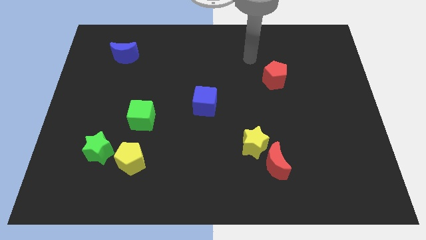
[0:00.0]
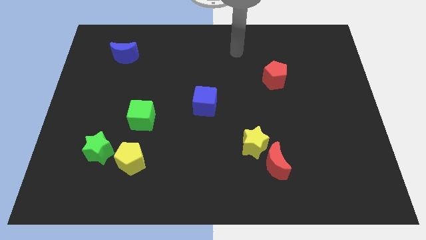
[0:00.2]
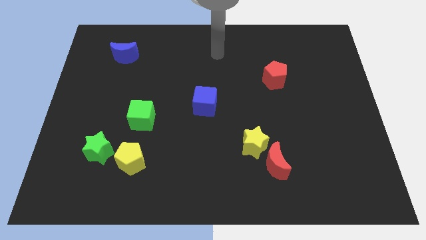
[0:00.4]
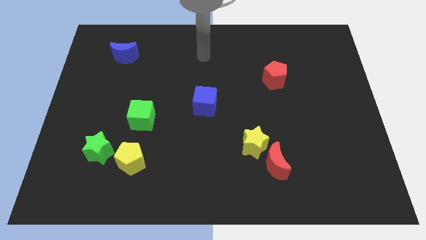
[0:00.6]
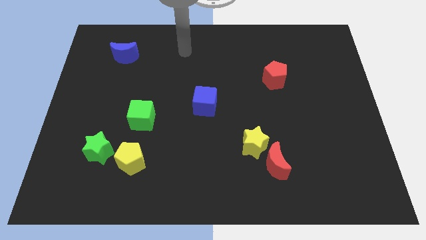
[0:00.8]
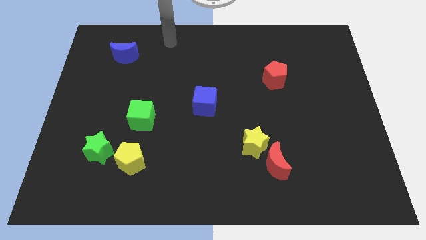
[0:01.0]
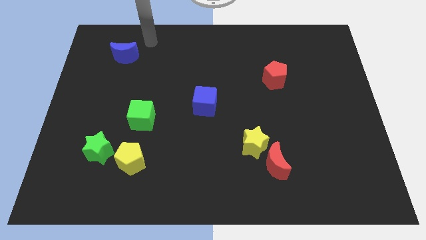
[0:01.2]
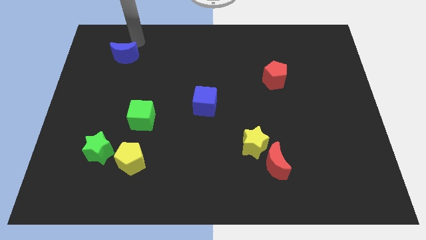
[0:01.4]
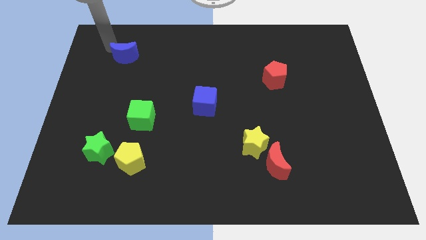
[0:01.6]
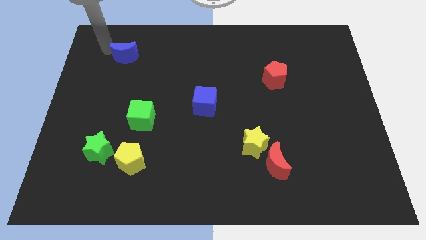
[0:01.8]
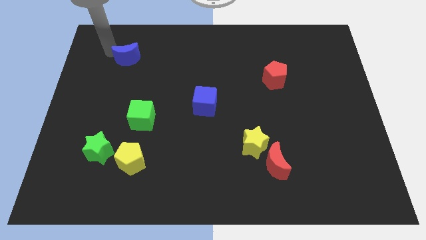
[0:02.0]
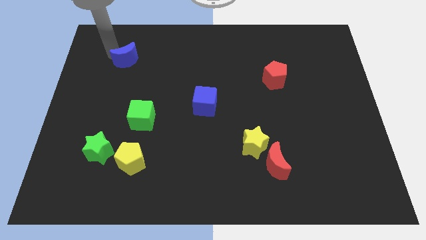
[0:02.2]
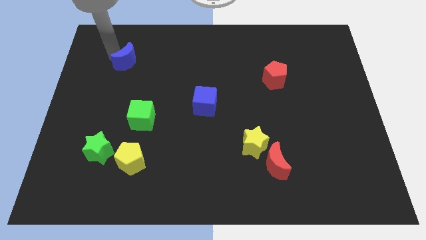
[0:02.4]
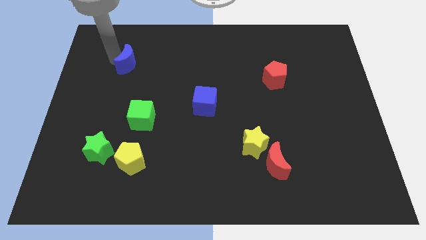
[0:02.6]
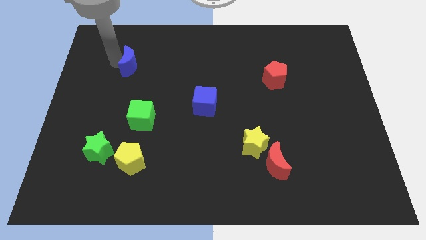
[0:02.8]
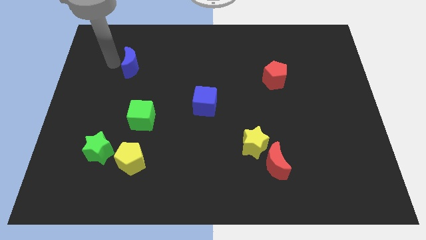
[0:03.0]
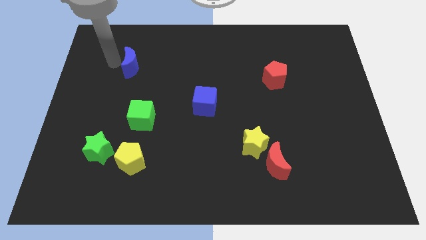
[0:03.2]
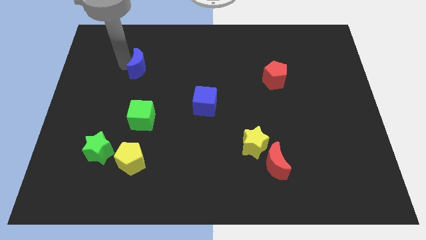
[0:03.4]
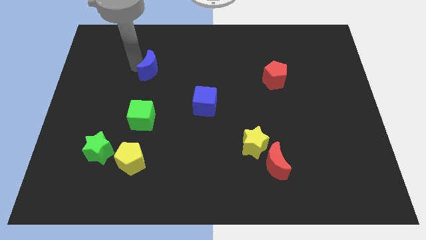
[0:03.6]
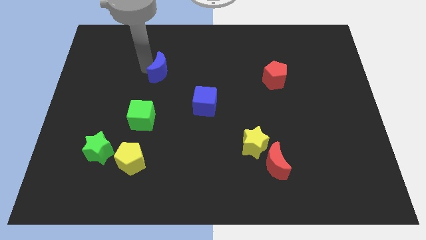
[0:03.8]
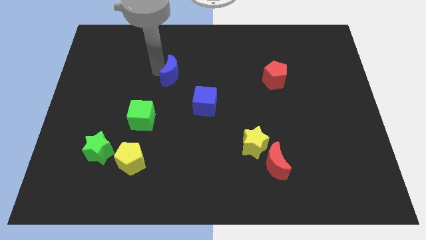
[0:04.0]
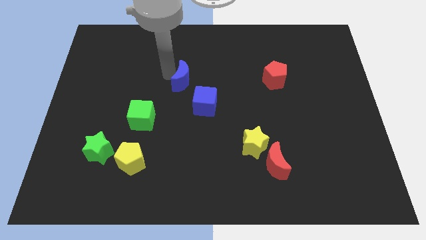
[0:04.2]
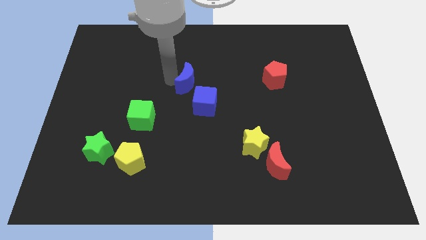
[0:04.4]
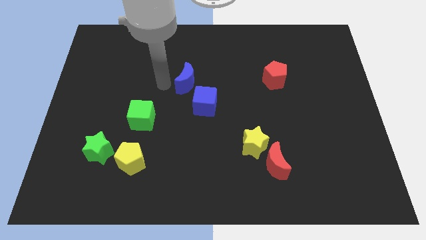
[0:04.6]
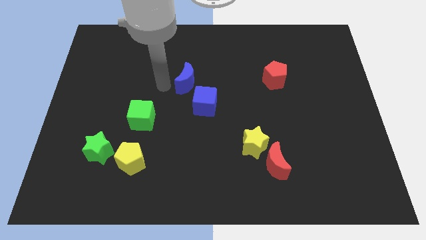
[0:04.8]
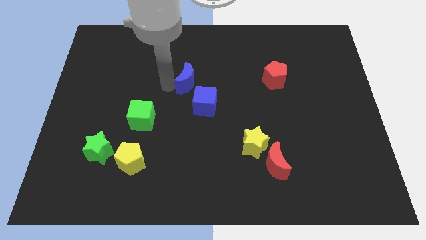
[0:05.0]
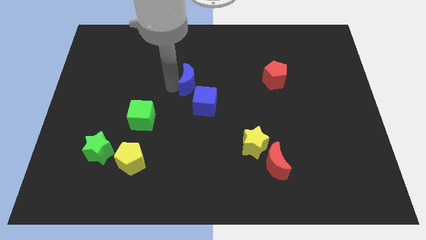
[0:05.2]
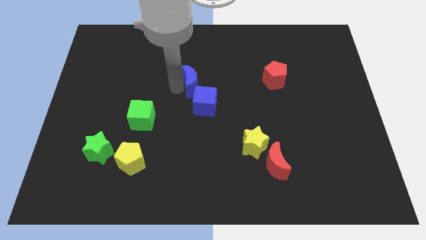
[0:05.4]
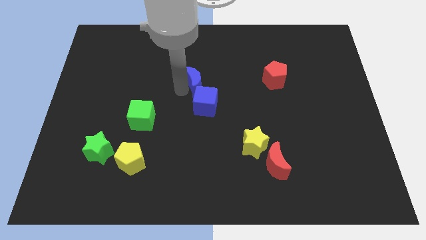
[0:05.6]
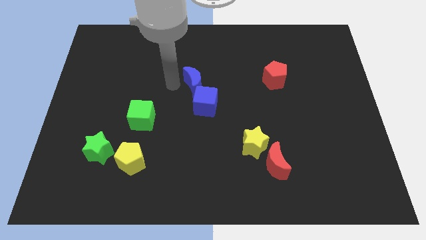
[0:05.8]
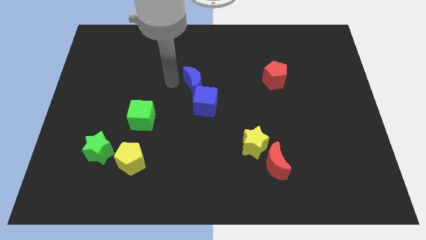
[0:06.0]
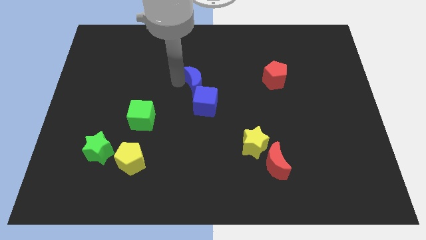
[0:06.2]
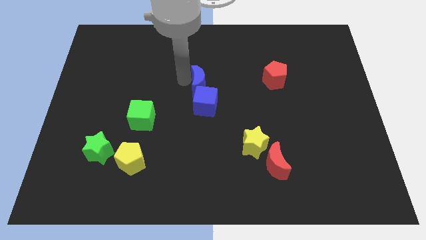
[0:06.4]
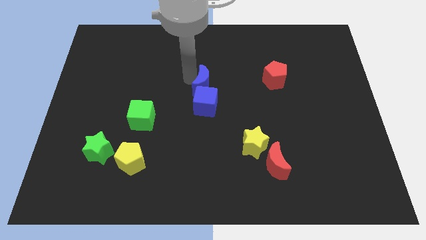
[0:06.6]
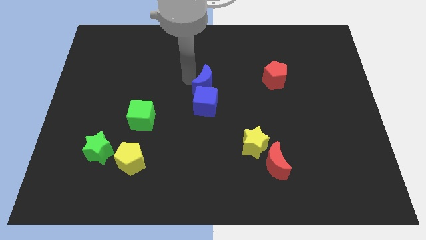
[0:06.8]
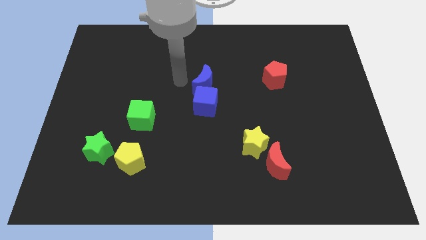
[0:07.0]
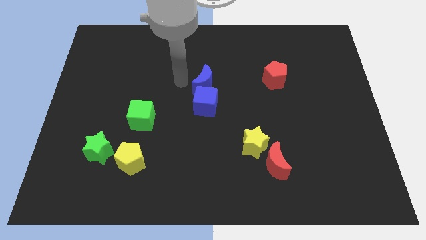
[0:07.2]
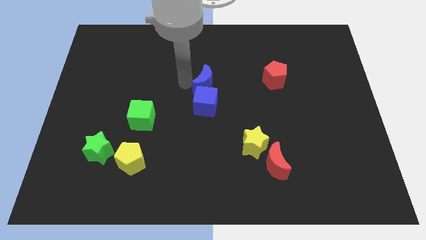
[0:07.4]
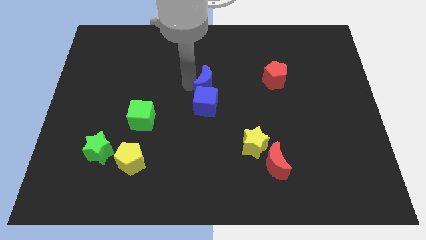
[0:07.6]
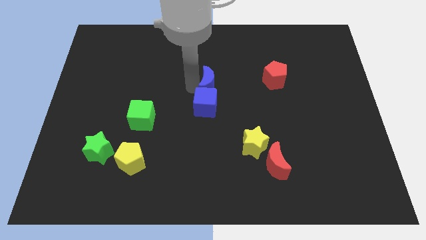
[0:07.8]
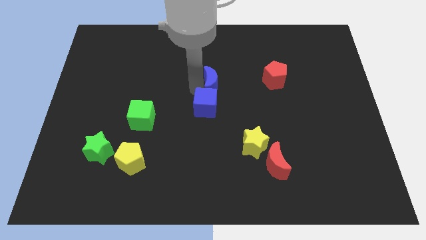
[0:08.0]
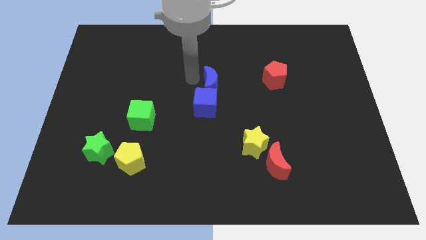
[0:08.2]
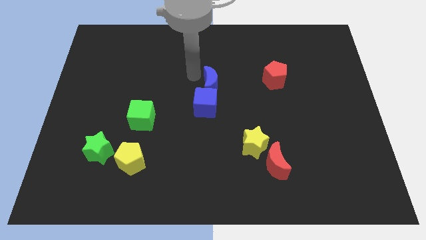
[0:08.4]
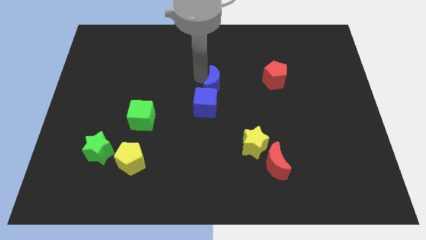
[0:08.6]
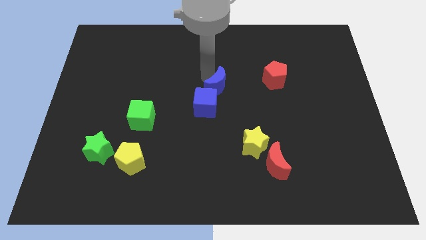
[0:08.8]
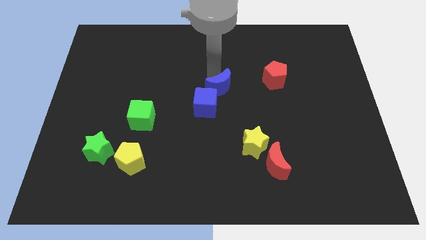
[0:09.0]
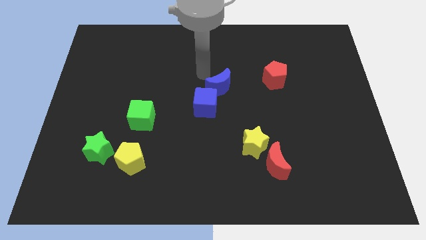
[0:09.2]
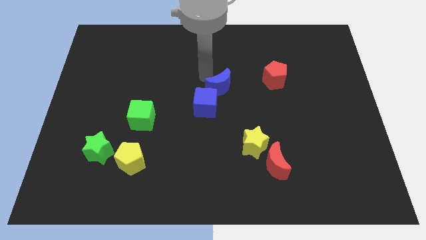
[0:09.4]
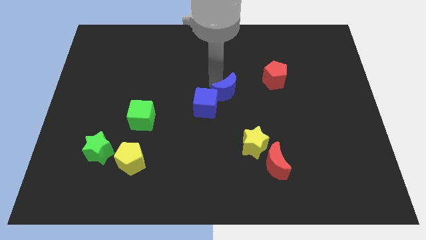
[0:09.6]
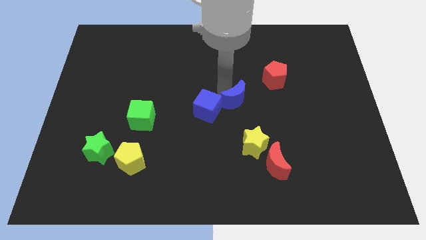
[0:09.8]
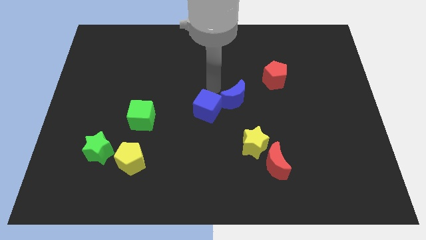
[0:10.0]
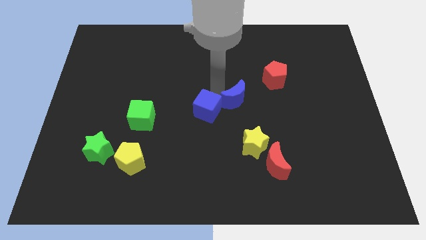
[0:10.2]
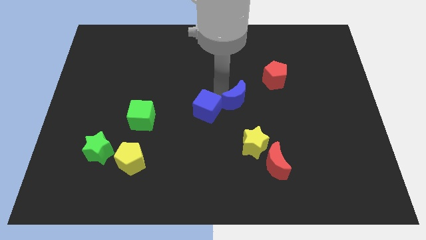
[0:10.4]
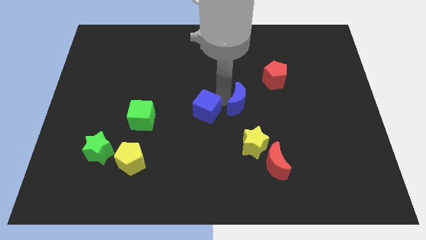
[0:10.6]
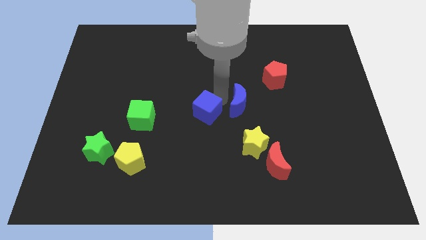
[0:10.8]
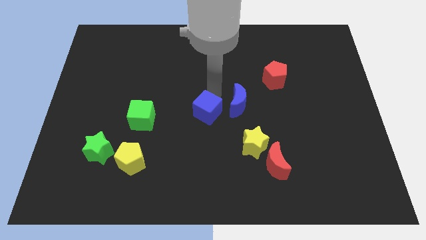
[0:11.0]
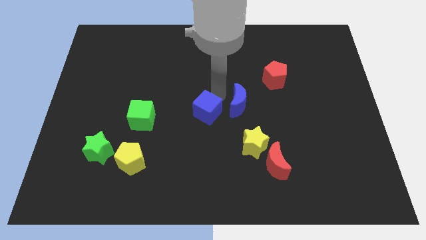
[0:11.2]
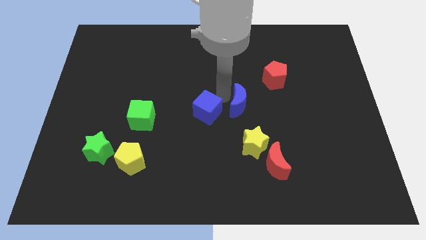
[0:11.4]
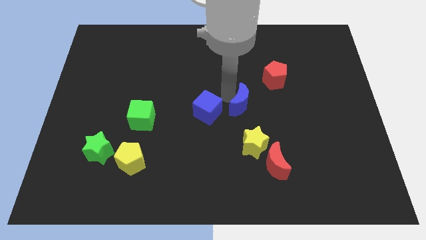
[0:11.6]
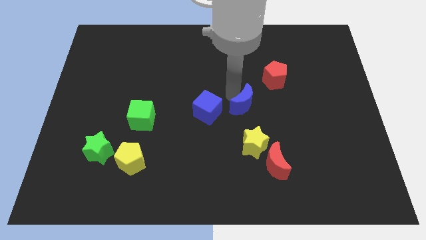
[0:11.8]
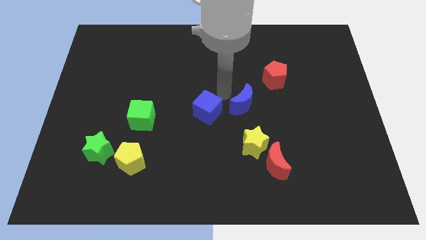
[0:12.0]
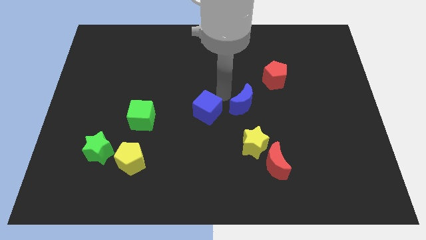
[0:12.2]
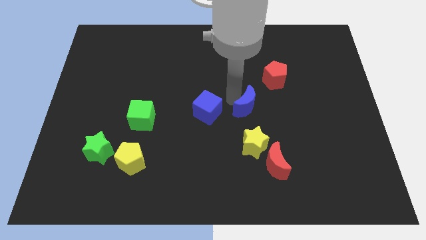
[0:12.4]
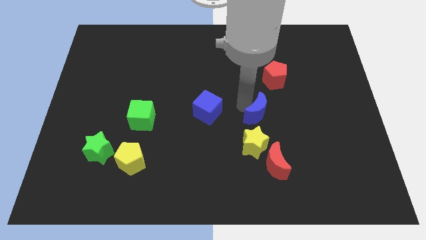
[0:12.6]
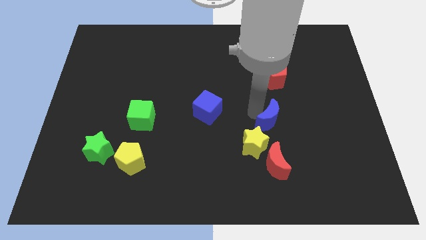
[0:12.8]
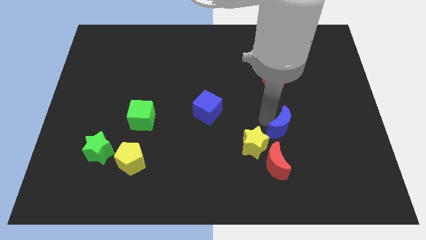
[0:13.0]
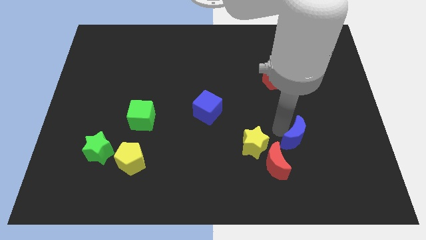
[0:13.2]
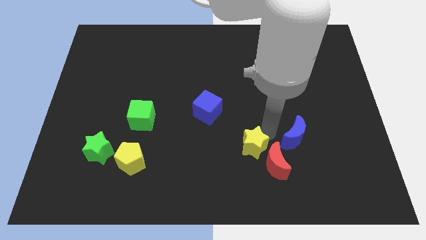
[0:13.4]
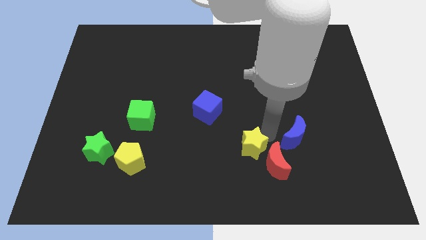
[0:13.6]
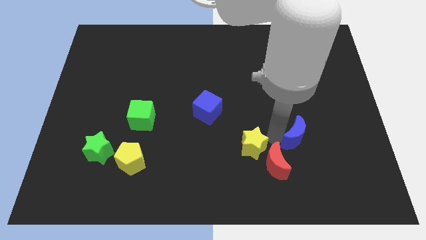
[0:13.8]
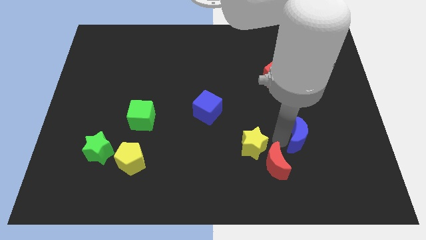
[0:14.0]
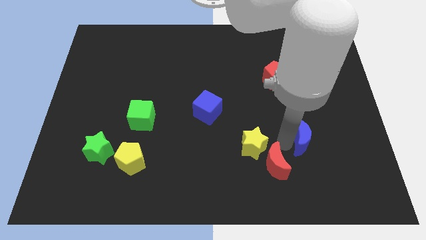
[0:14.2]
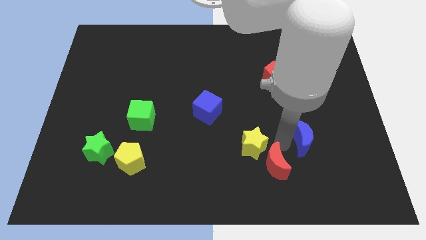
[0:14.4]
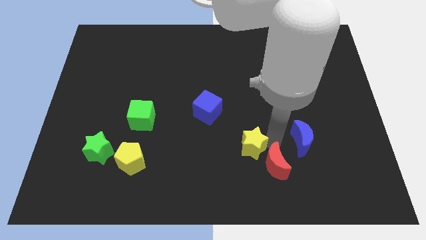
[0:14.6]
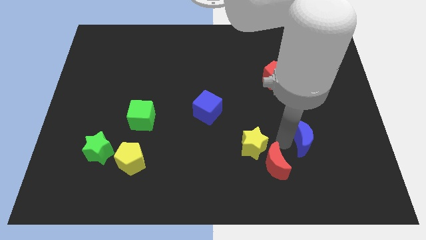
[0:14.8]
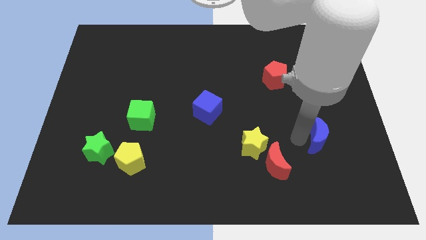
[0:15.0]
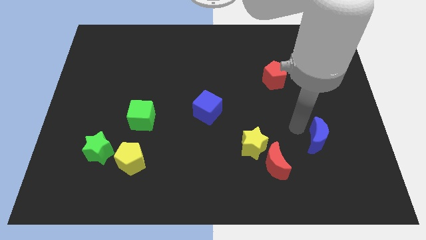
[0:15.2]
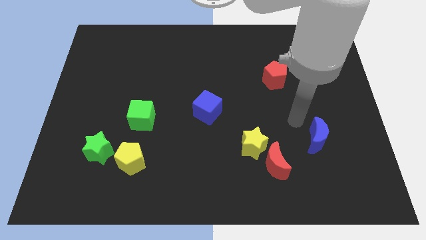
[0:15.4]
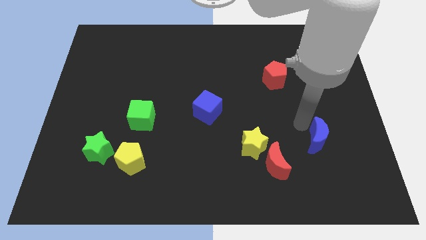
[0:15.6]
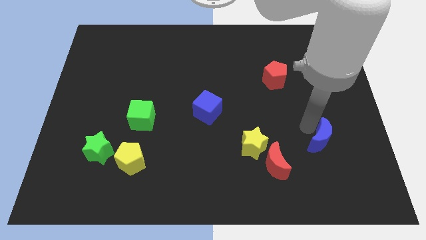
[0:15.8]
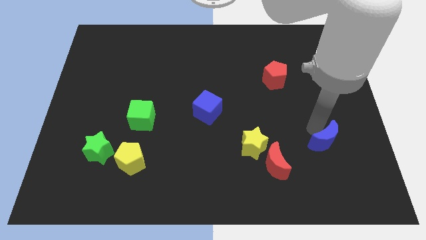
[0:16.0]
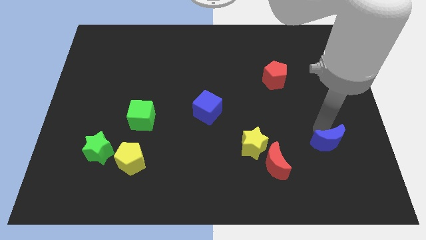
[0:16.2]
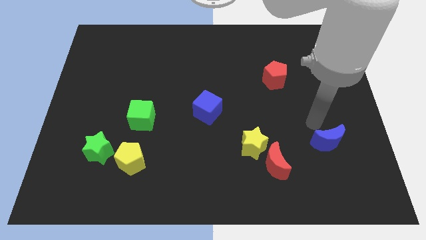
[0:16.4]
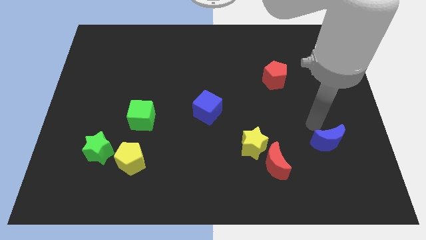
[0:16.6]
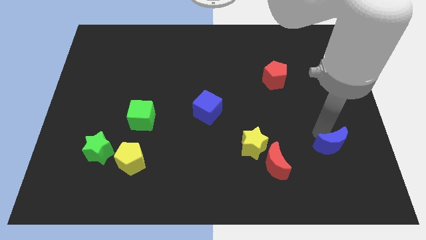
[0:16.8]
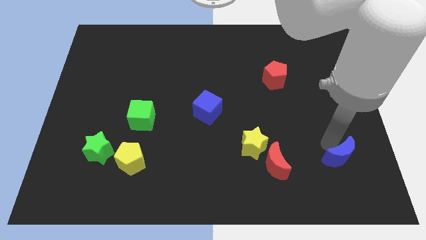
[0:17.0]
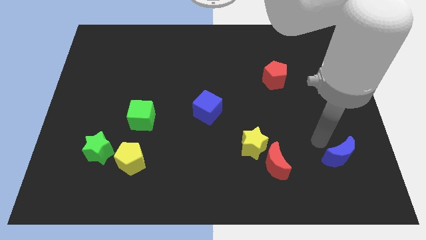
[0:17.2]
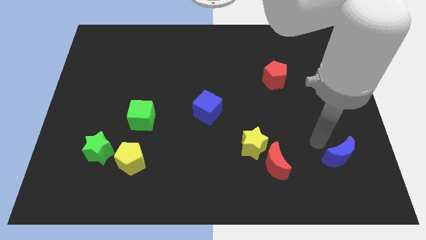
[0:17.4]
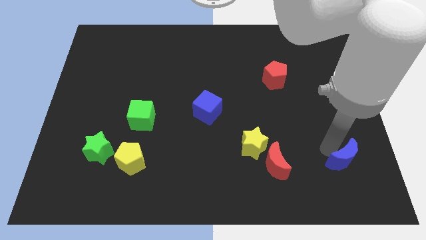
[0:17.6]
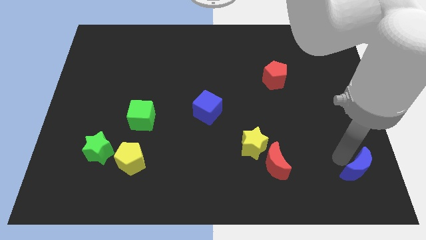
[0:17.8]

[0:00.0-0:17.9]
push the blue moon to the bottom right of the board
